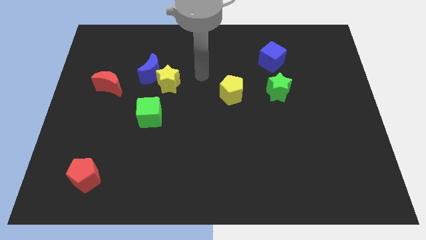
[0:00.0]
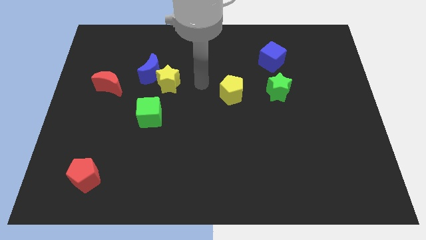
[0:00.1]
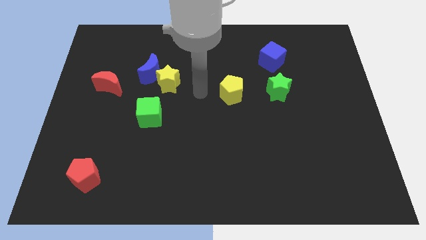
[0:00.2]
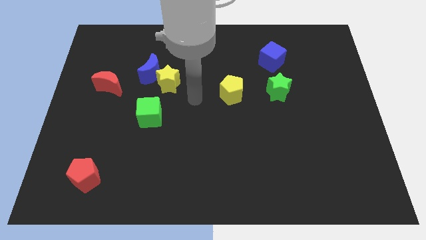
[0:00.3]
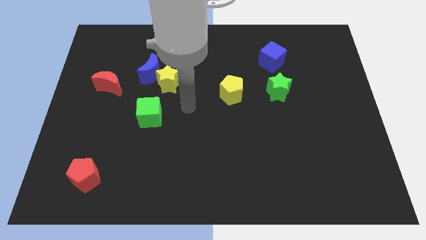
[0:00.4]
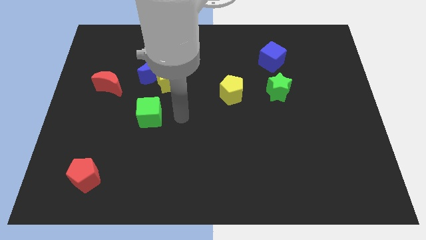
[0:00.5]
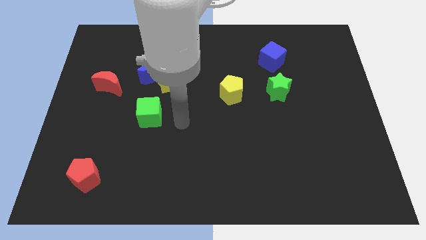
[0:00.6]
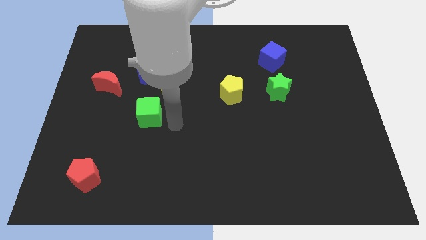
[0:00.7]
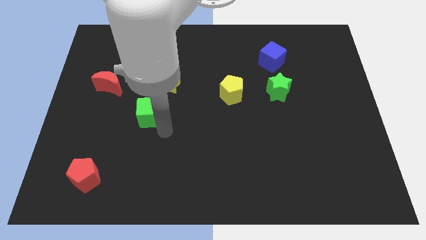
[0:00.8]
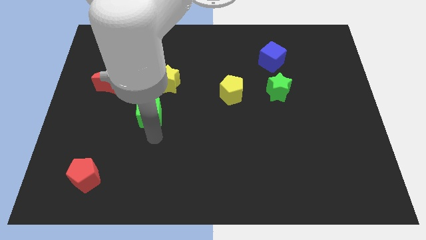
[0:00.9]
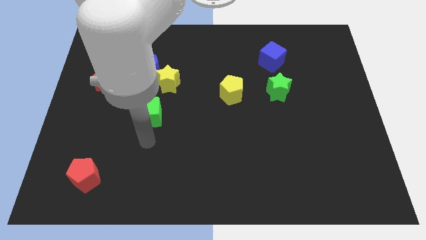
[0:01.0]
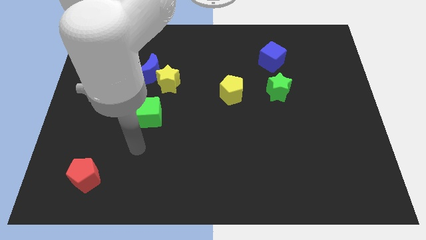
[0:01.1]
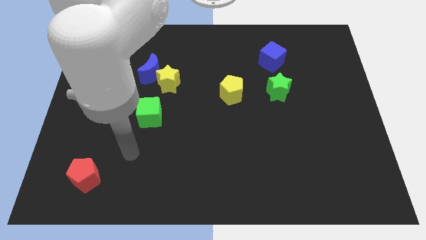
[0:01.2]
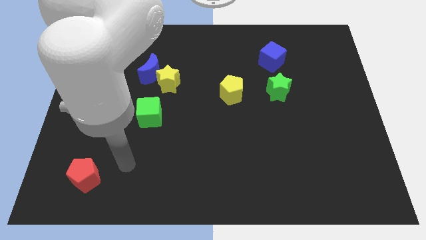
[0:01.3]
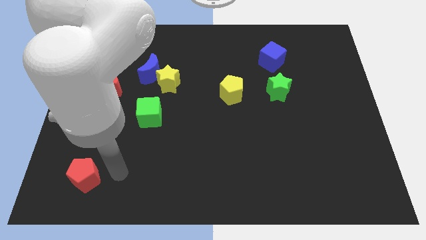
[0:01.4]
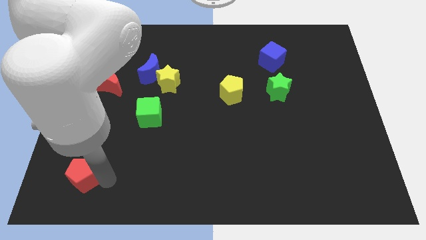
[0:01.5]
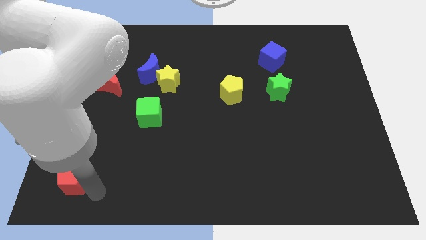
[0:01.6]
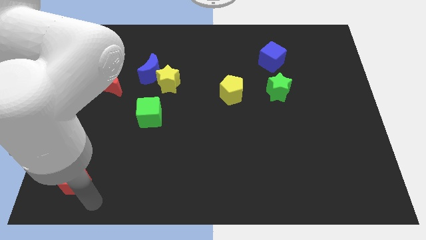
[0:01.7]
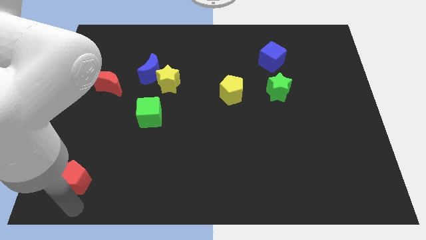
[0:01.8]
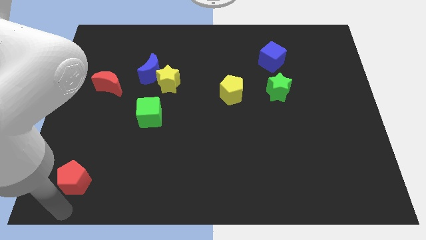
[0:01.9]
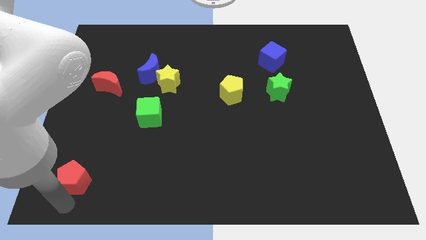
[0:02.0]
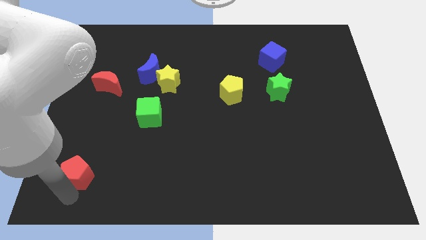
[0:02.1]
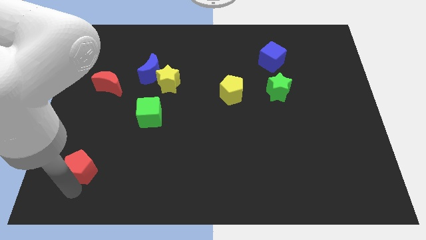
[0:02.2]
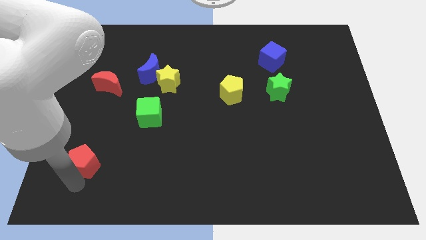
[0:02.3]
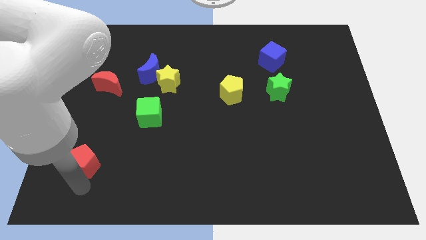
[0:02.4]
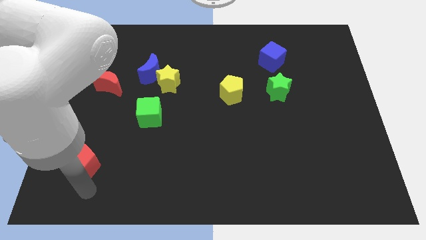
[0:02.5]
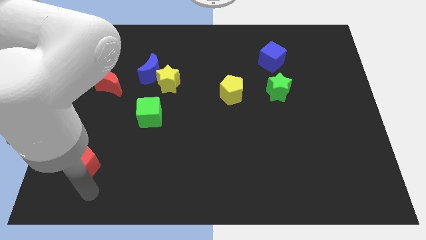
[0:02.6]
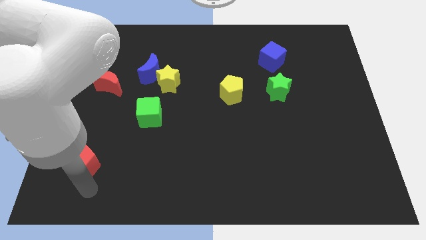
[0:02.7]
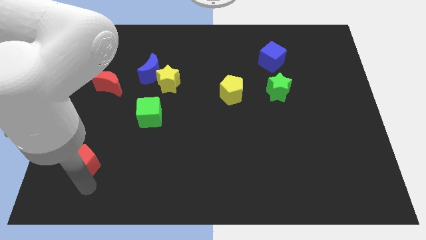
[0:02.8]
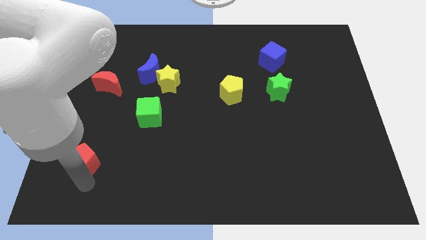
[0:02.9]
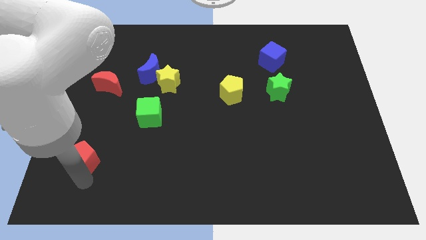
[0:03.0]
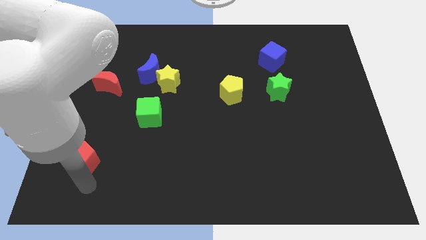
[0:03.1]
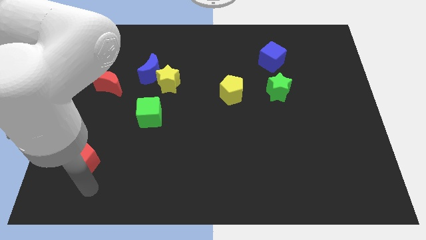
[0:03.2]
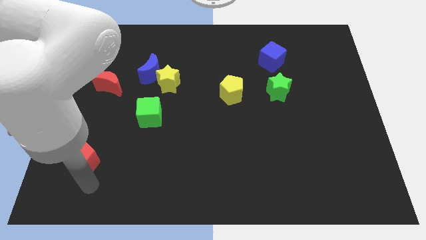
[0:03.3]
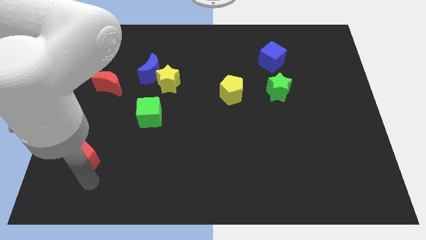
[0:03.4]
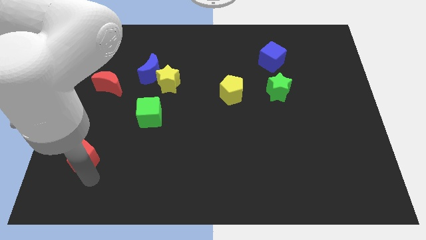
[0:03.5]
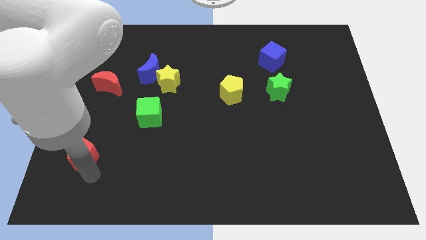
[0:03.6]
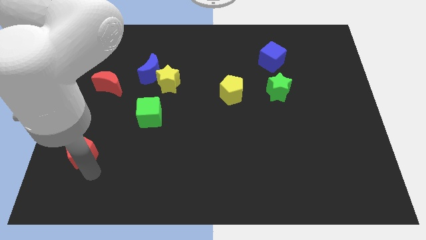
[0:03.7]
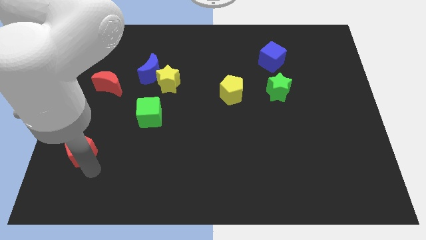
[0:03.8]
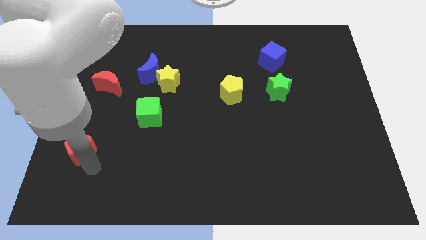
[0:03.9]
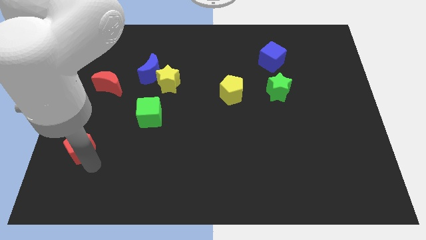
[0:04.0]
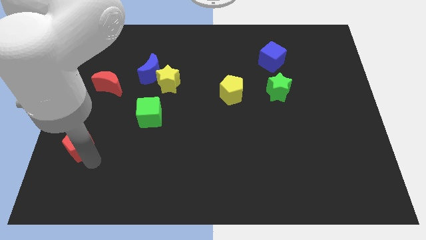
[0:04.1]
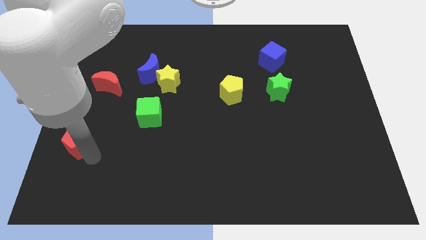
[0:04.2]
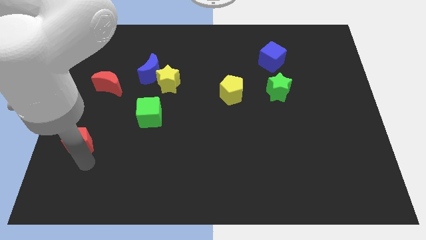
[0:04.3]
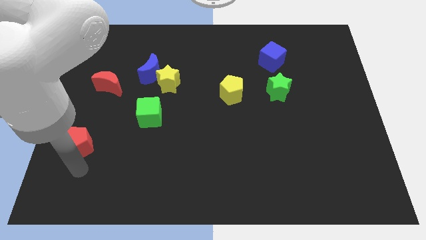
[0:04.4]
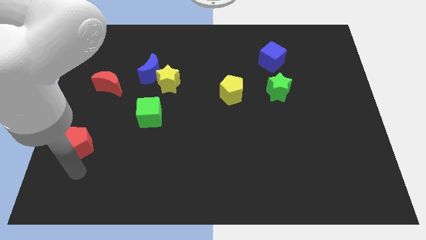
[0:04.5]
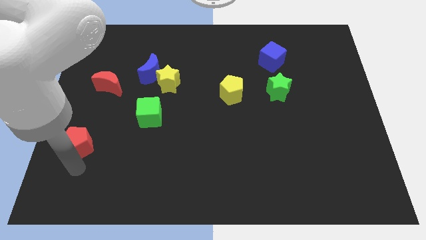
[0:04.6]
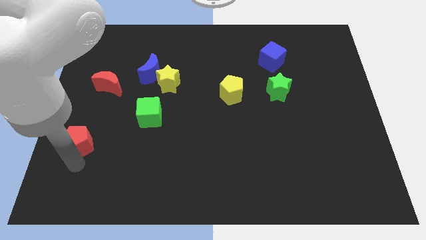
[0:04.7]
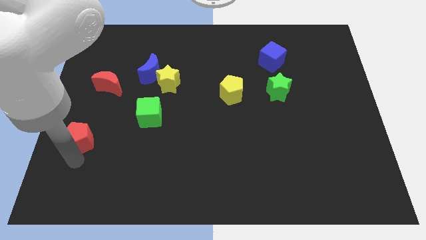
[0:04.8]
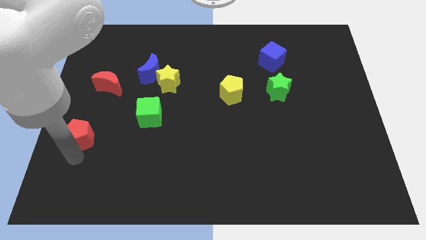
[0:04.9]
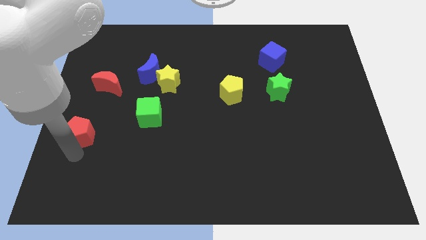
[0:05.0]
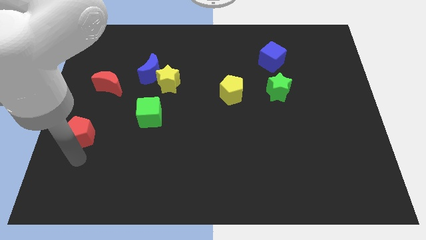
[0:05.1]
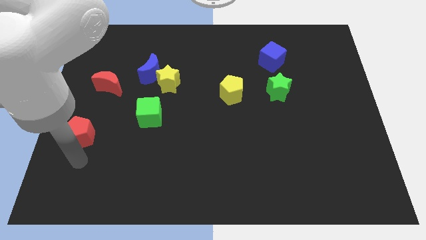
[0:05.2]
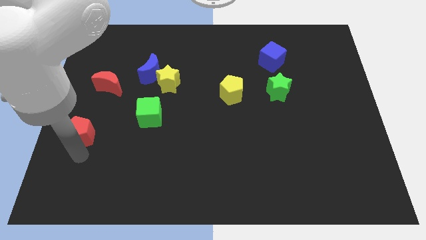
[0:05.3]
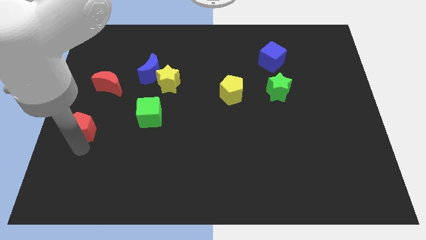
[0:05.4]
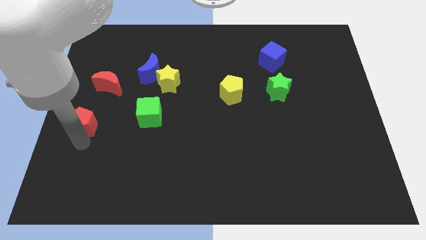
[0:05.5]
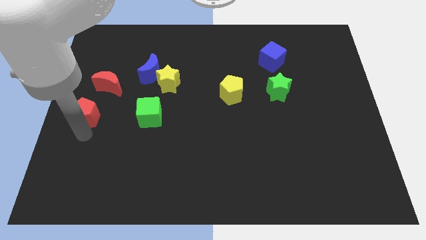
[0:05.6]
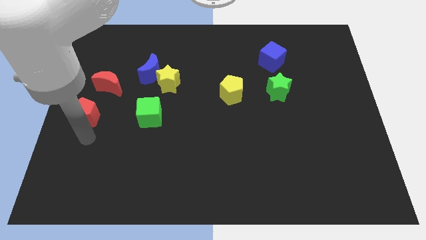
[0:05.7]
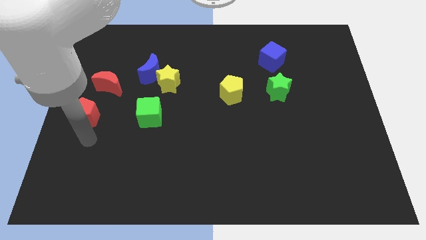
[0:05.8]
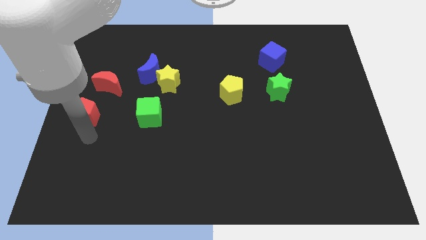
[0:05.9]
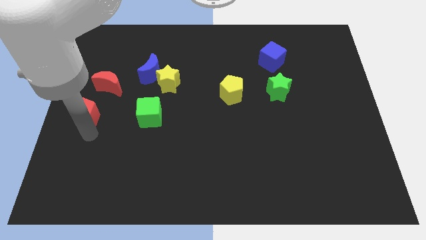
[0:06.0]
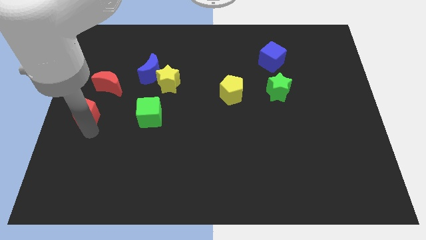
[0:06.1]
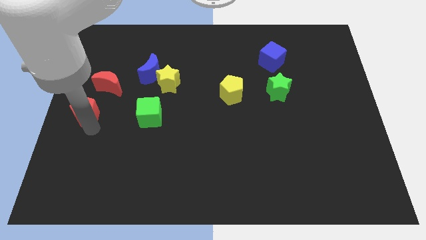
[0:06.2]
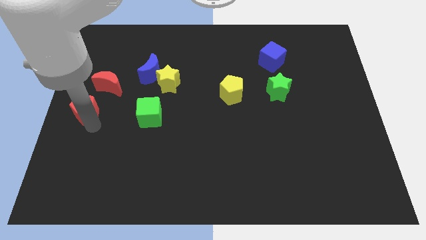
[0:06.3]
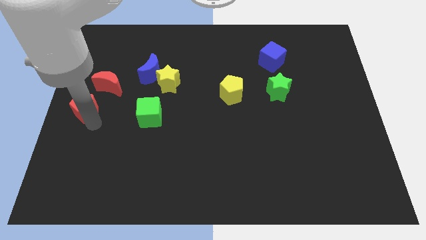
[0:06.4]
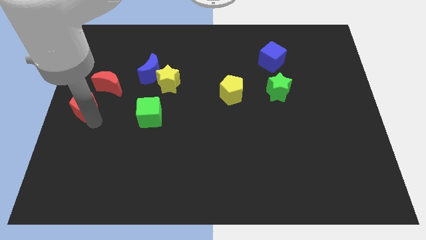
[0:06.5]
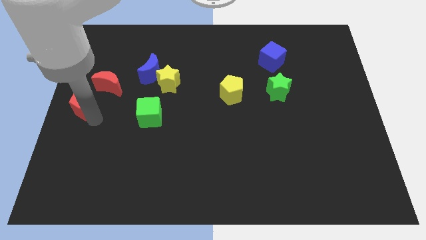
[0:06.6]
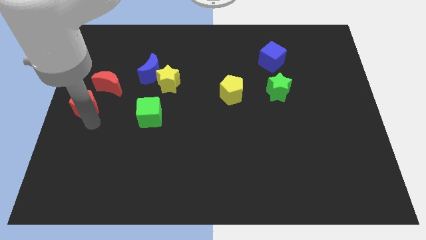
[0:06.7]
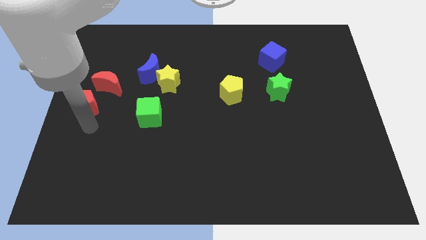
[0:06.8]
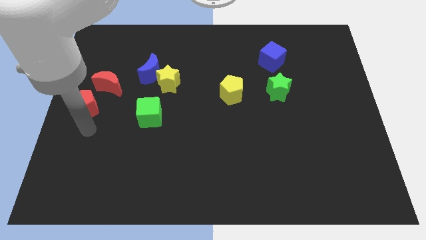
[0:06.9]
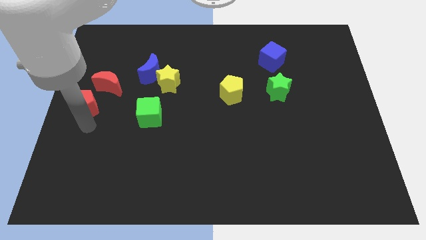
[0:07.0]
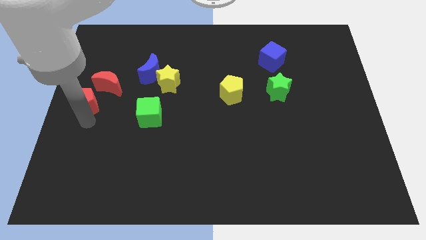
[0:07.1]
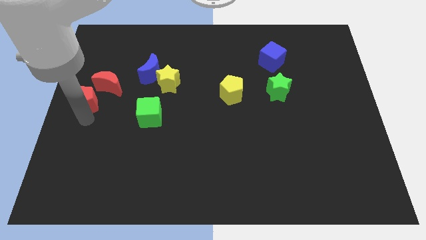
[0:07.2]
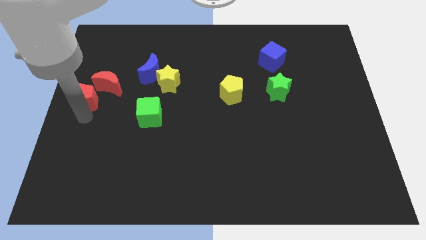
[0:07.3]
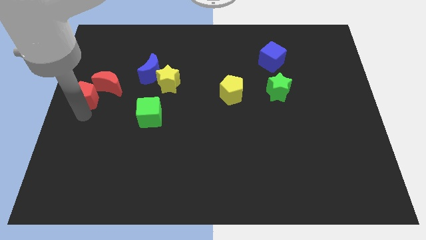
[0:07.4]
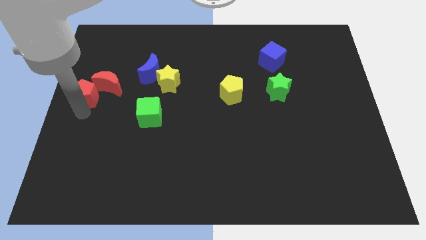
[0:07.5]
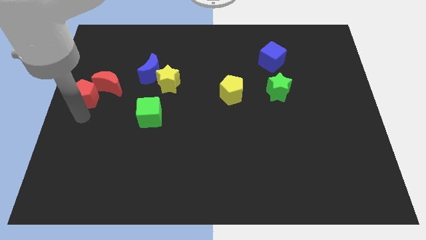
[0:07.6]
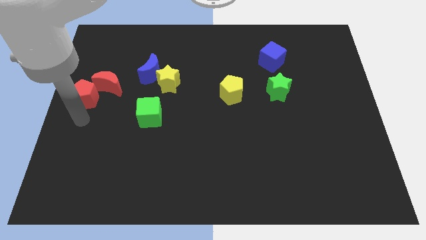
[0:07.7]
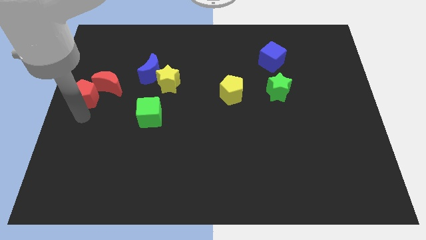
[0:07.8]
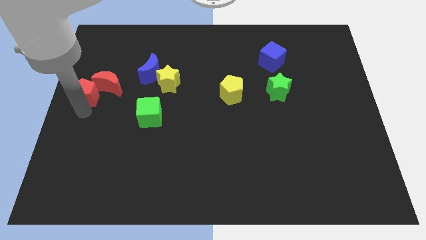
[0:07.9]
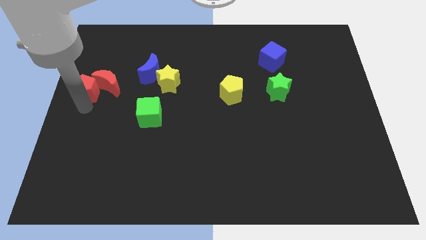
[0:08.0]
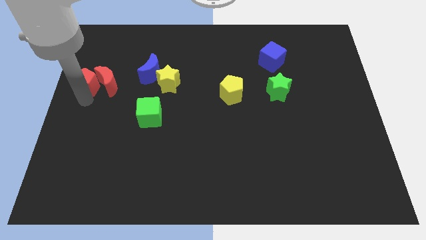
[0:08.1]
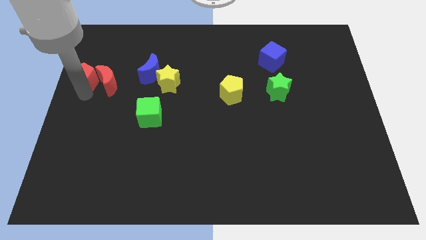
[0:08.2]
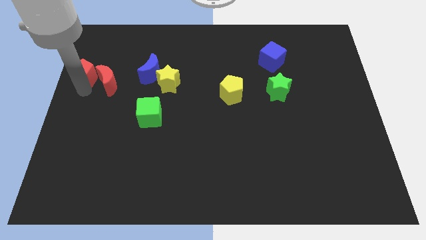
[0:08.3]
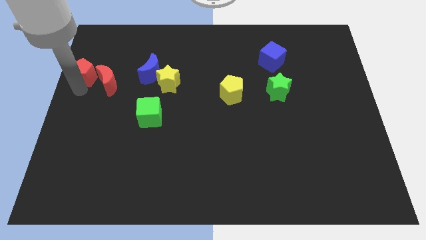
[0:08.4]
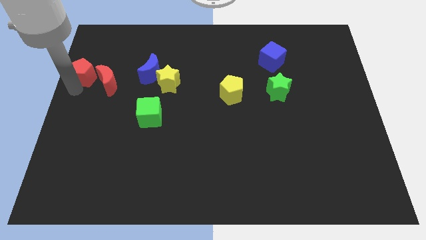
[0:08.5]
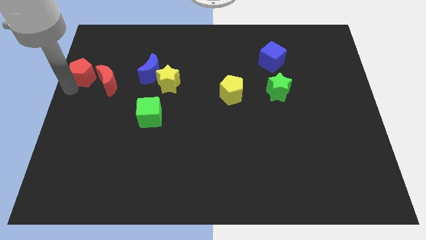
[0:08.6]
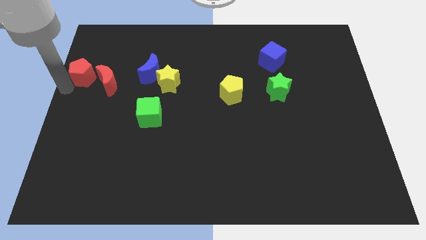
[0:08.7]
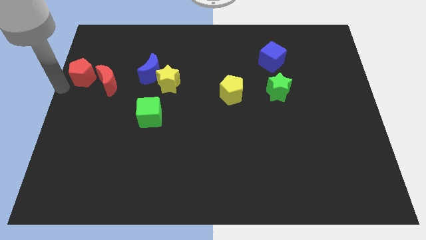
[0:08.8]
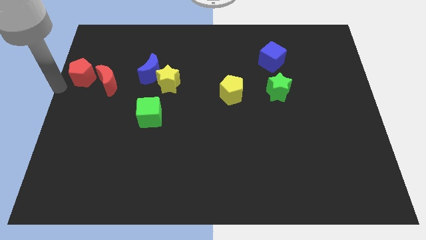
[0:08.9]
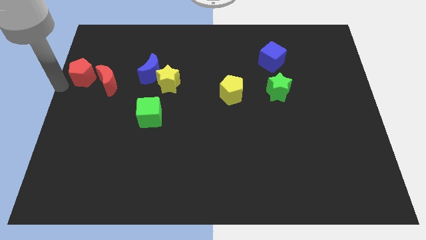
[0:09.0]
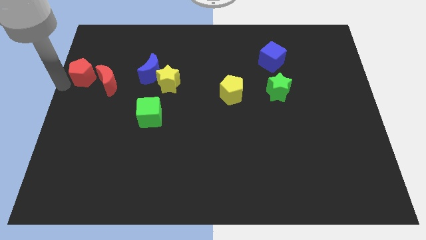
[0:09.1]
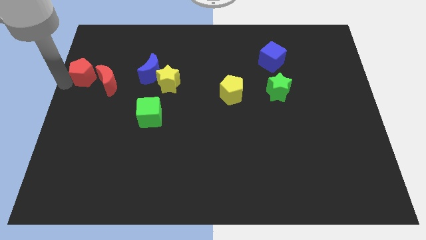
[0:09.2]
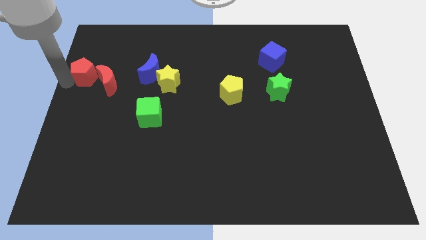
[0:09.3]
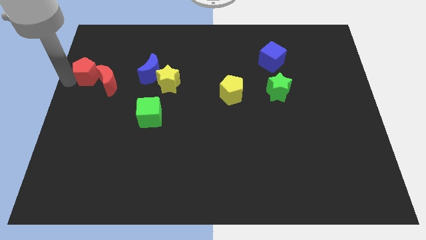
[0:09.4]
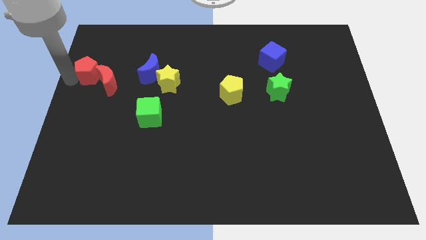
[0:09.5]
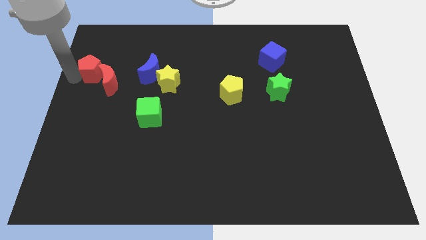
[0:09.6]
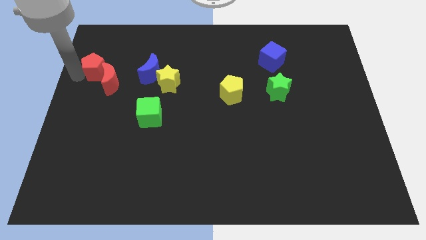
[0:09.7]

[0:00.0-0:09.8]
move the red pentagon above the red moon
